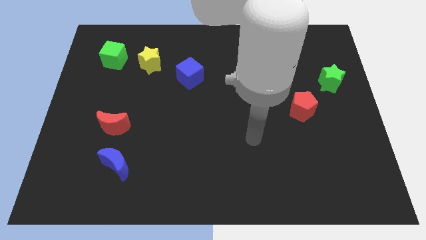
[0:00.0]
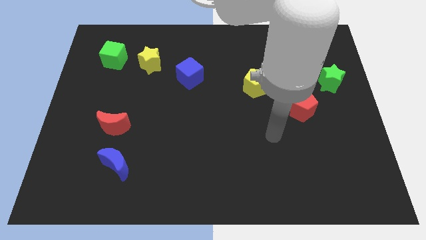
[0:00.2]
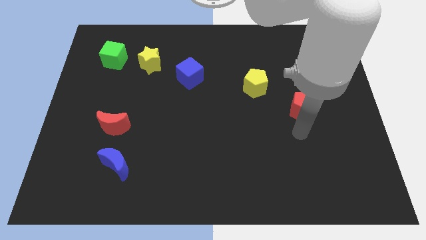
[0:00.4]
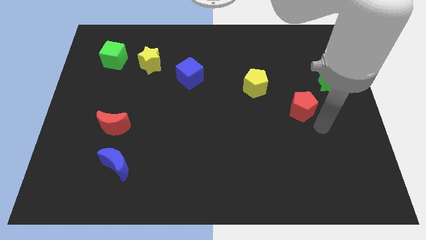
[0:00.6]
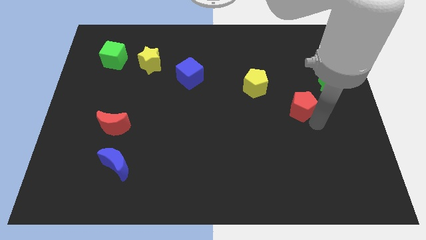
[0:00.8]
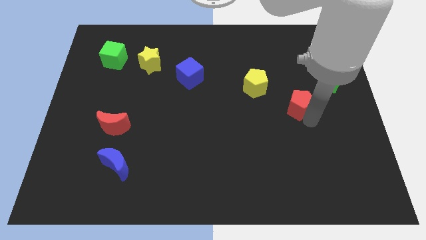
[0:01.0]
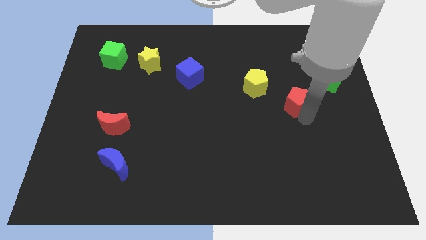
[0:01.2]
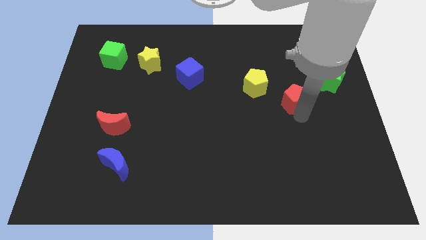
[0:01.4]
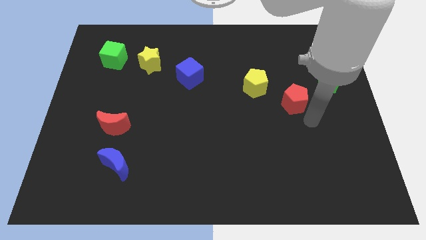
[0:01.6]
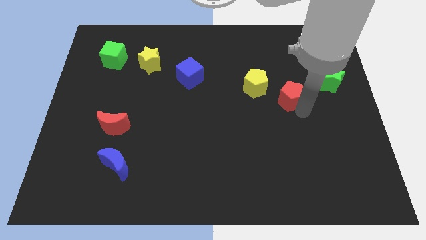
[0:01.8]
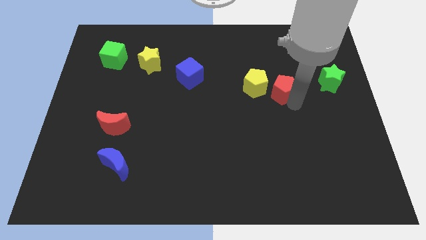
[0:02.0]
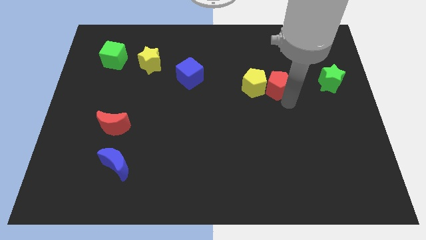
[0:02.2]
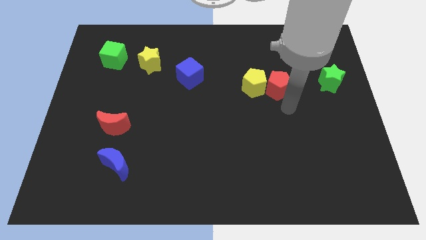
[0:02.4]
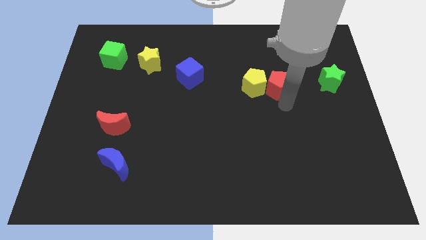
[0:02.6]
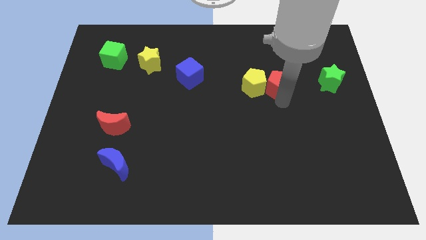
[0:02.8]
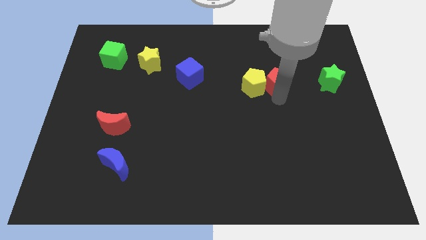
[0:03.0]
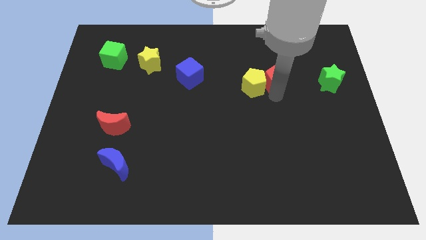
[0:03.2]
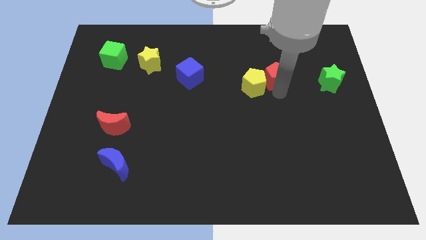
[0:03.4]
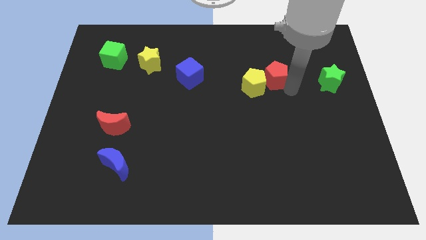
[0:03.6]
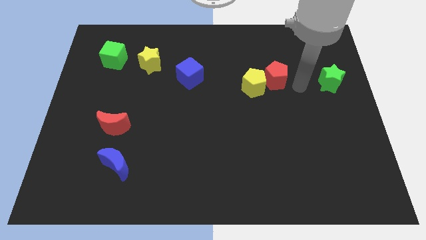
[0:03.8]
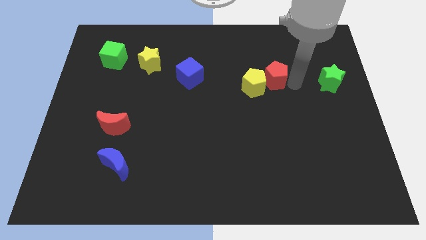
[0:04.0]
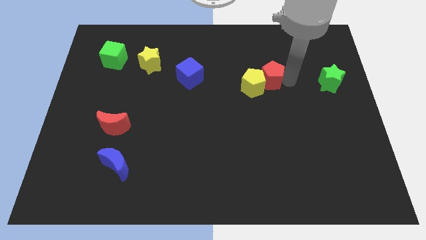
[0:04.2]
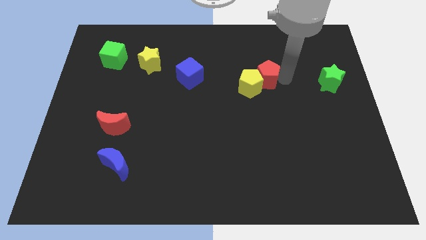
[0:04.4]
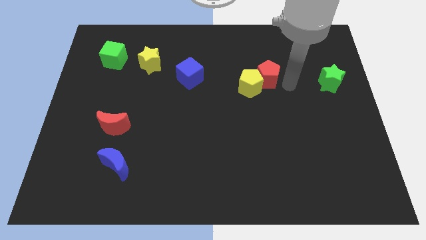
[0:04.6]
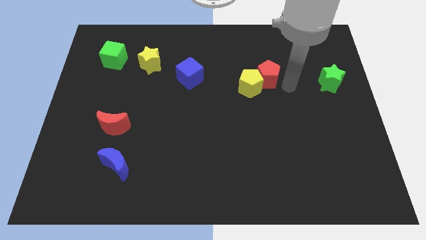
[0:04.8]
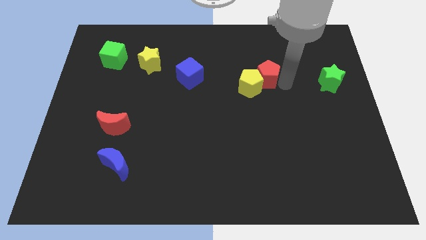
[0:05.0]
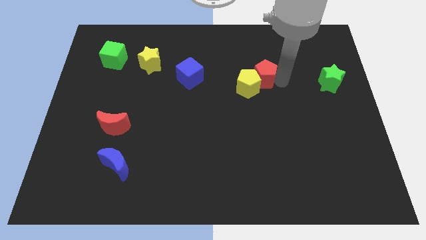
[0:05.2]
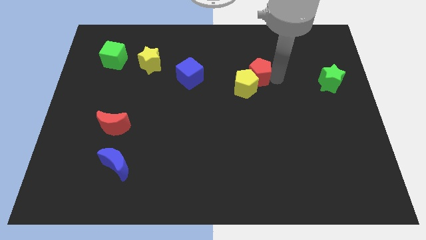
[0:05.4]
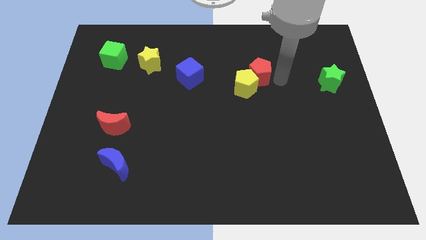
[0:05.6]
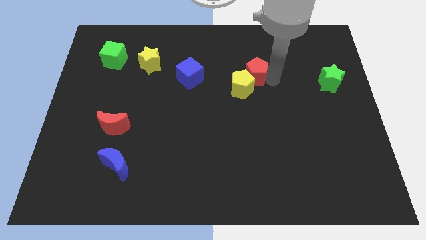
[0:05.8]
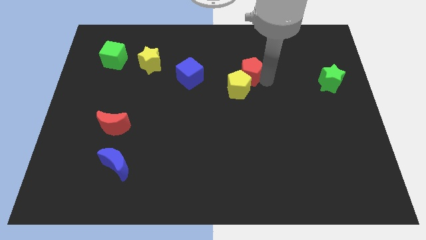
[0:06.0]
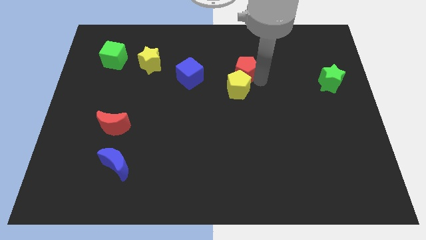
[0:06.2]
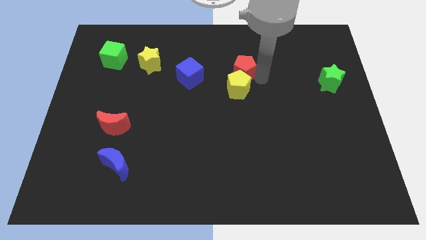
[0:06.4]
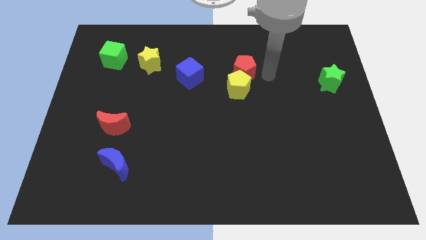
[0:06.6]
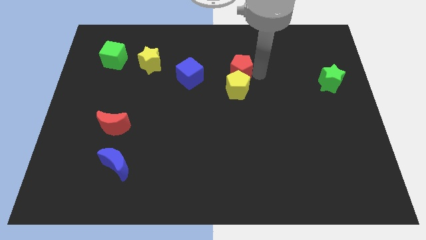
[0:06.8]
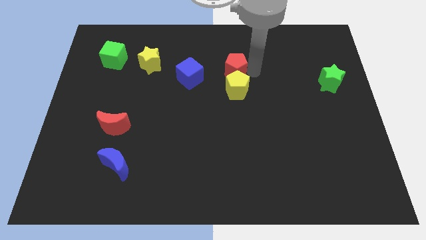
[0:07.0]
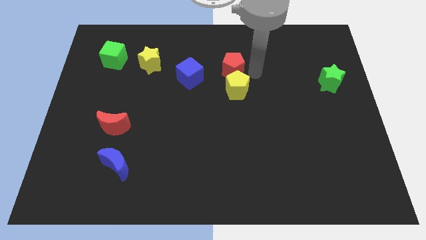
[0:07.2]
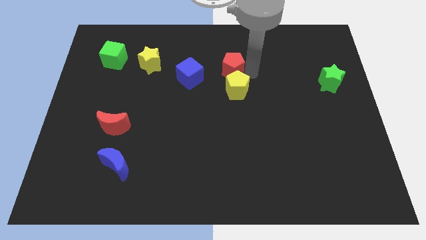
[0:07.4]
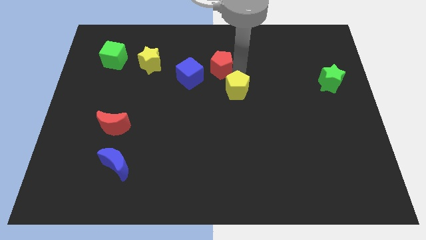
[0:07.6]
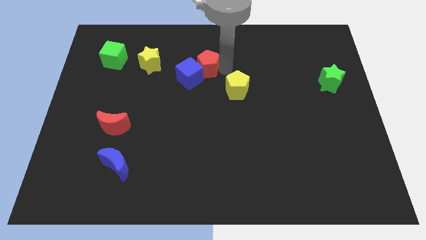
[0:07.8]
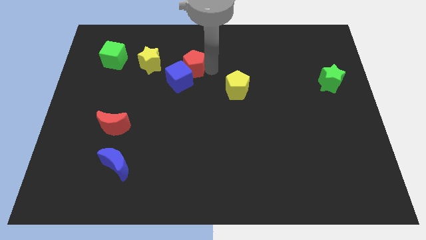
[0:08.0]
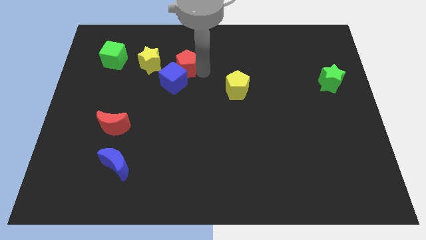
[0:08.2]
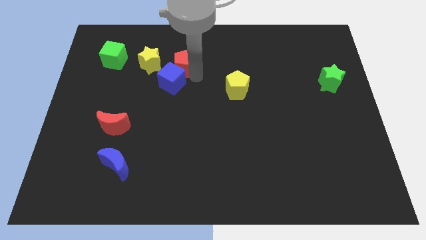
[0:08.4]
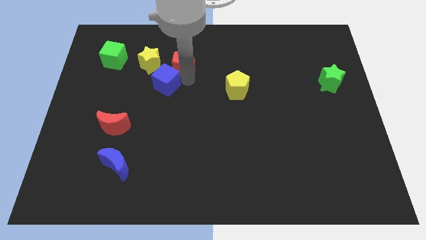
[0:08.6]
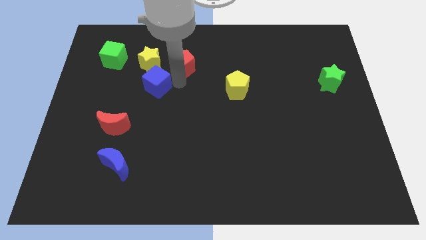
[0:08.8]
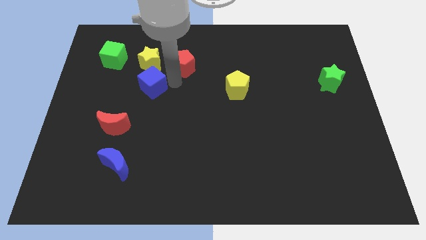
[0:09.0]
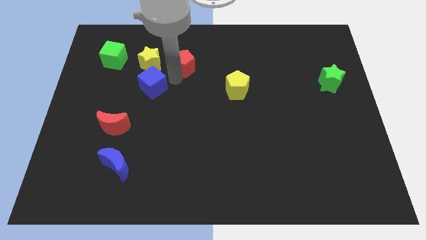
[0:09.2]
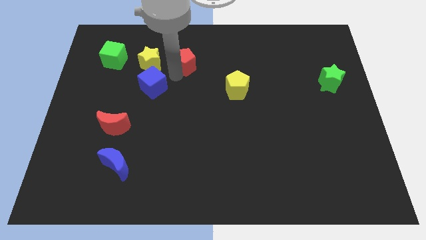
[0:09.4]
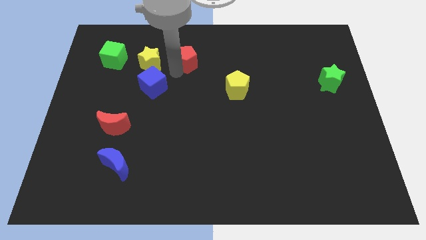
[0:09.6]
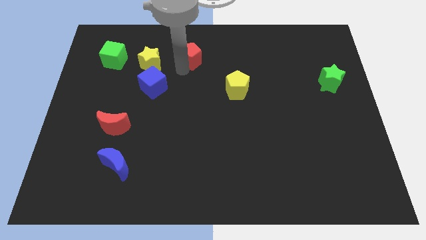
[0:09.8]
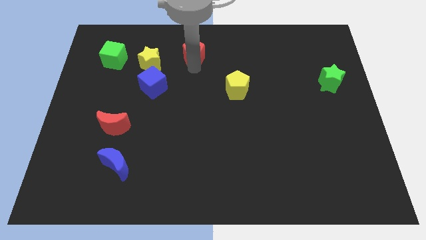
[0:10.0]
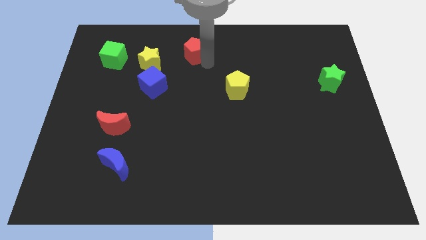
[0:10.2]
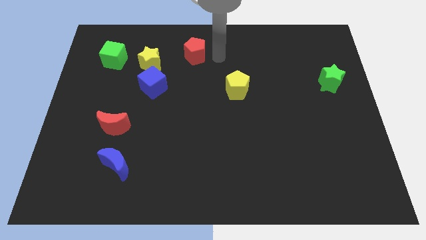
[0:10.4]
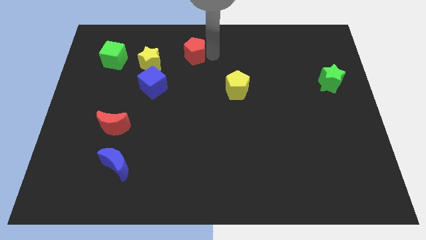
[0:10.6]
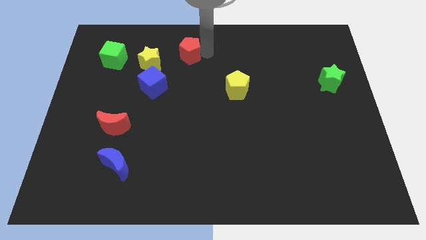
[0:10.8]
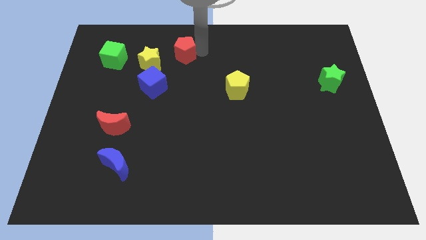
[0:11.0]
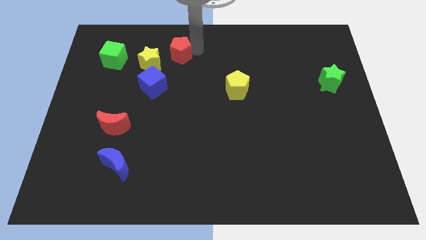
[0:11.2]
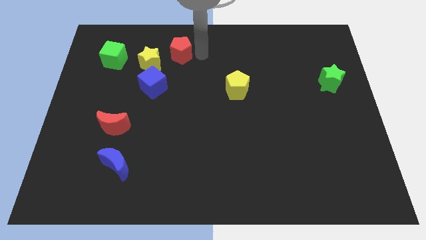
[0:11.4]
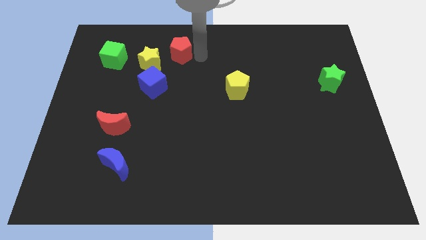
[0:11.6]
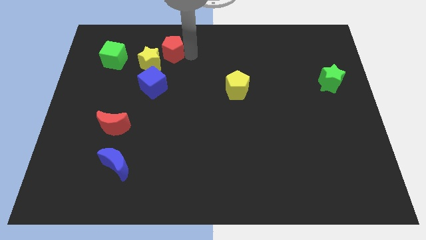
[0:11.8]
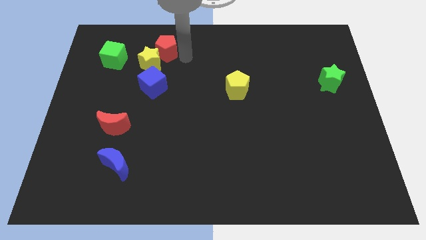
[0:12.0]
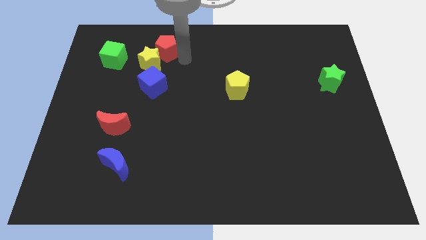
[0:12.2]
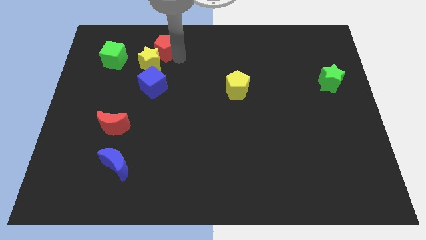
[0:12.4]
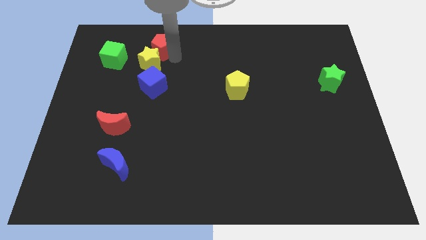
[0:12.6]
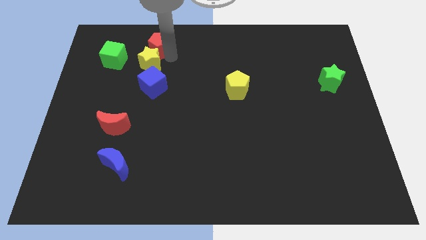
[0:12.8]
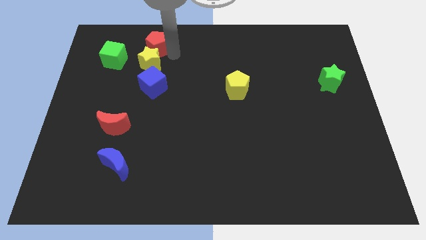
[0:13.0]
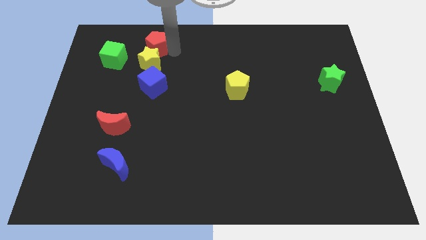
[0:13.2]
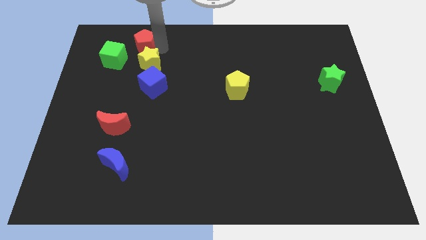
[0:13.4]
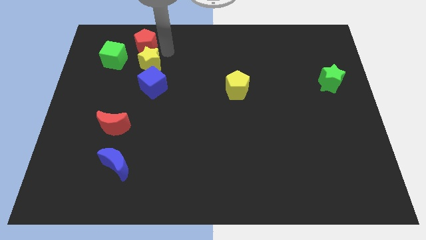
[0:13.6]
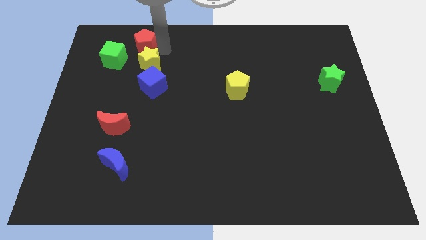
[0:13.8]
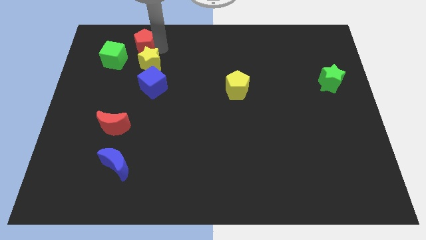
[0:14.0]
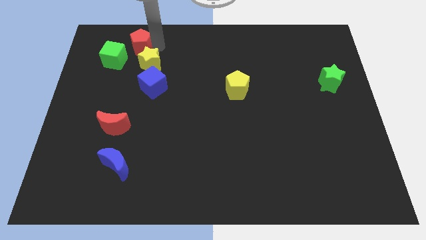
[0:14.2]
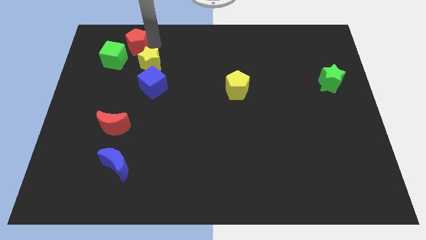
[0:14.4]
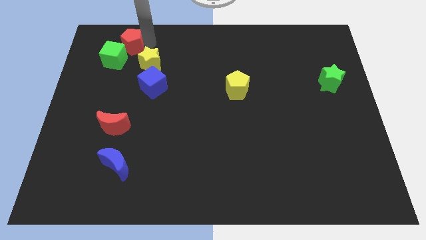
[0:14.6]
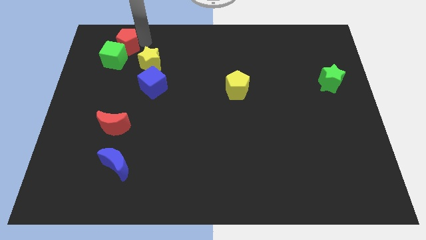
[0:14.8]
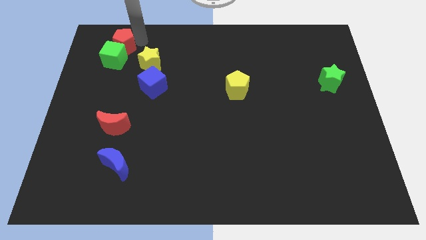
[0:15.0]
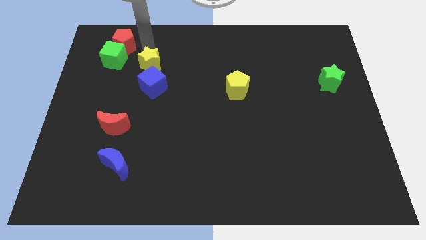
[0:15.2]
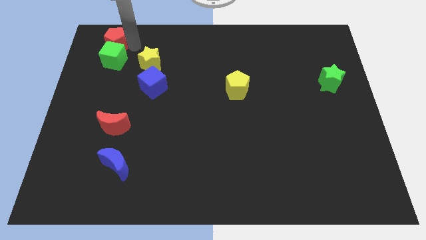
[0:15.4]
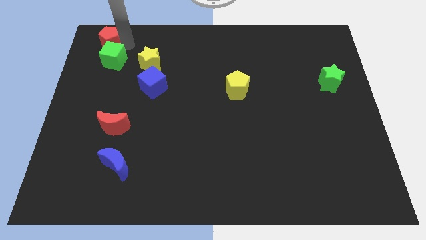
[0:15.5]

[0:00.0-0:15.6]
slide the red pentagon to the top left corner
